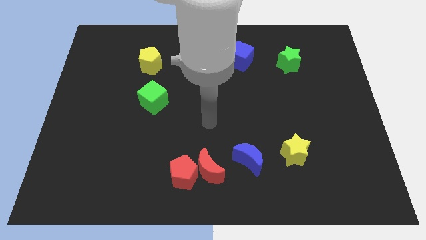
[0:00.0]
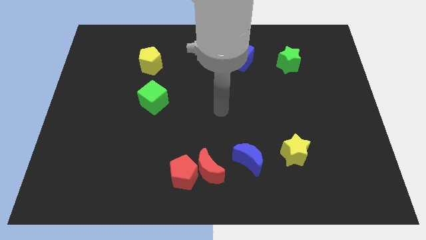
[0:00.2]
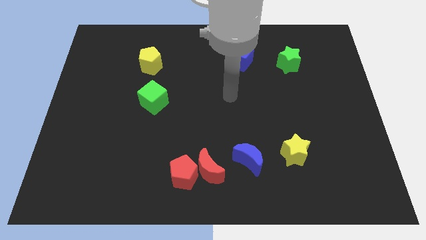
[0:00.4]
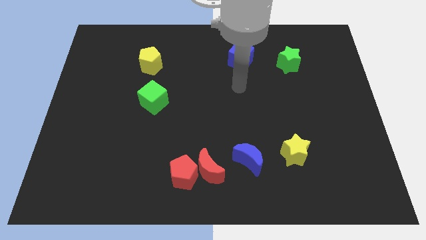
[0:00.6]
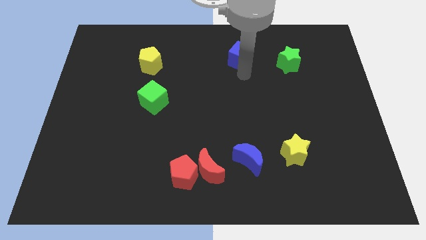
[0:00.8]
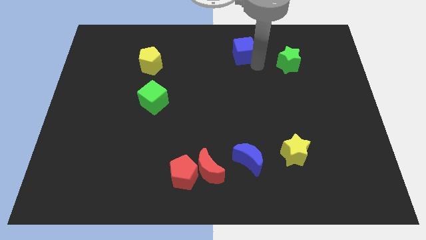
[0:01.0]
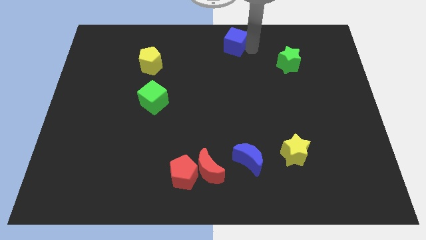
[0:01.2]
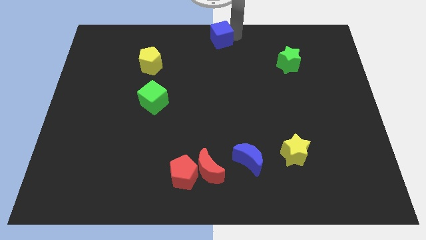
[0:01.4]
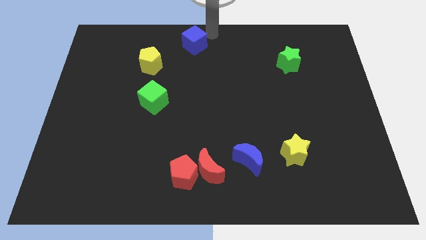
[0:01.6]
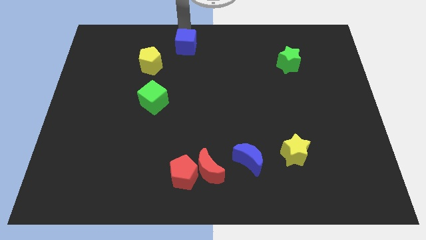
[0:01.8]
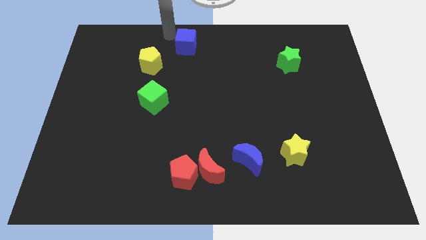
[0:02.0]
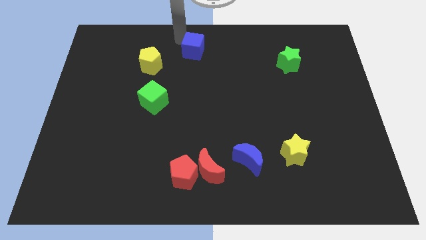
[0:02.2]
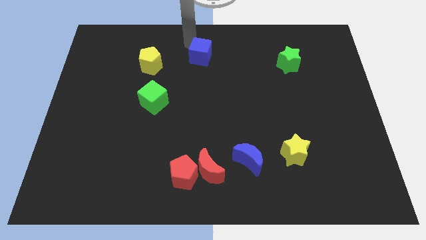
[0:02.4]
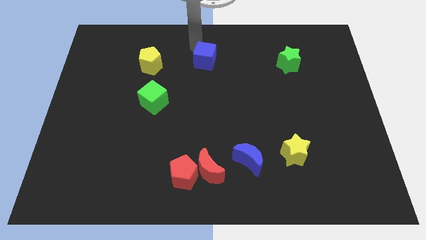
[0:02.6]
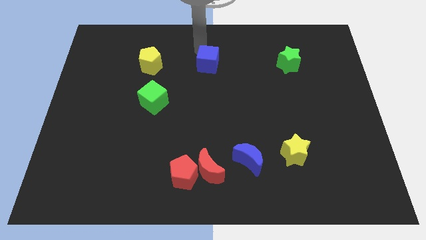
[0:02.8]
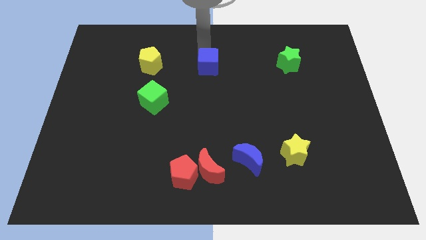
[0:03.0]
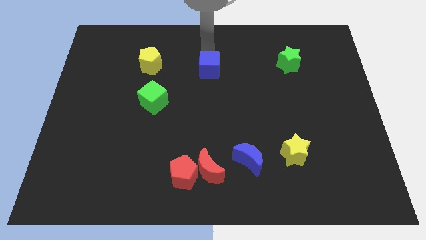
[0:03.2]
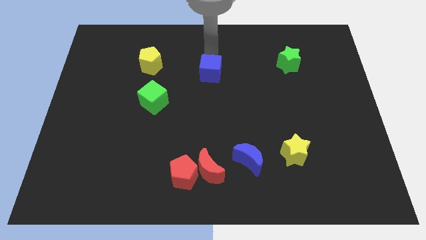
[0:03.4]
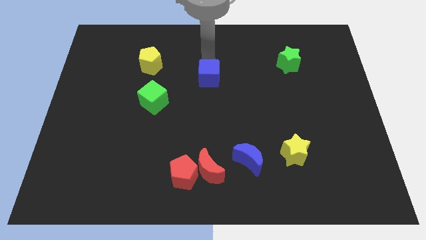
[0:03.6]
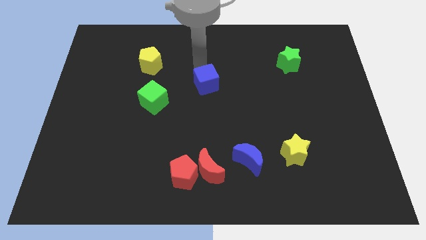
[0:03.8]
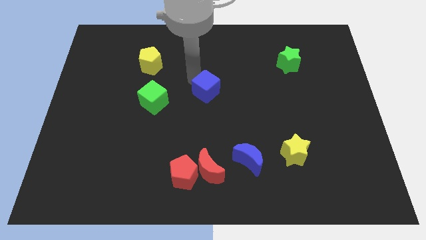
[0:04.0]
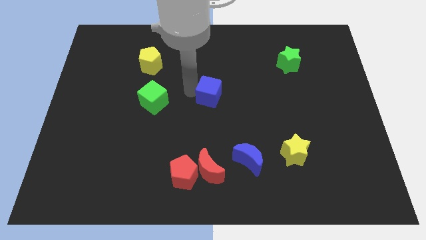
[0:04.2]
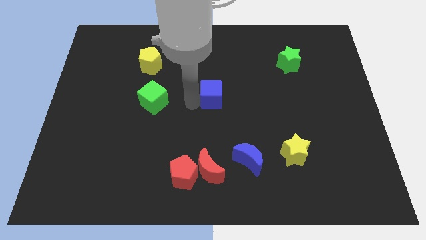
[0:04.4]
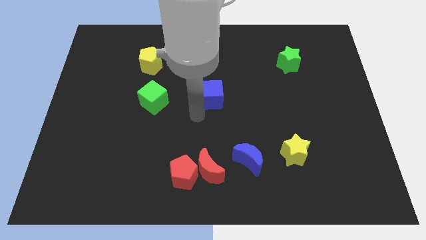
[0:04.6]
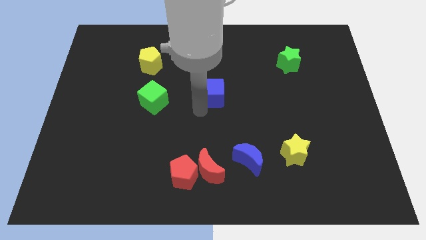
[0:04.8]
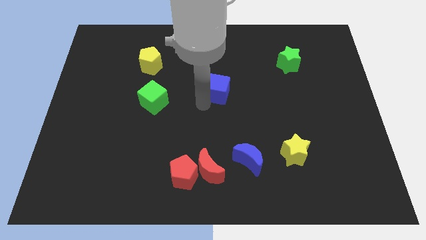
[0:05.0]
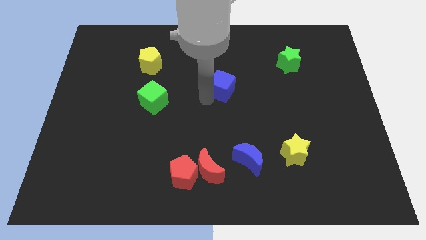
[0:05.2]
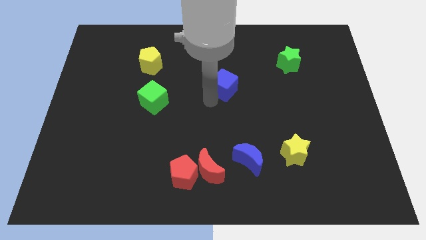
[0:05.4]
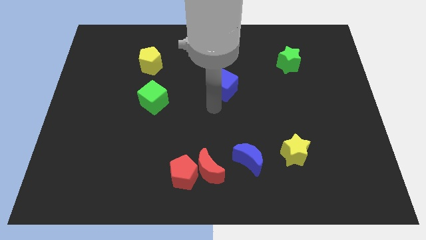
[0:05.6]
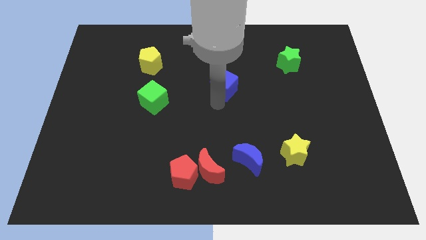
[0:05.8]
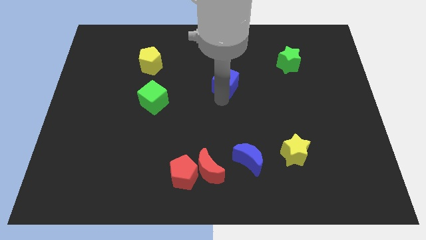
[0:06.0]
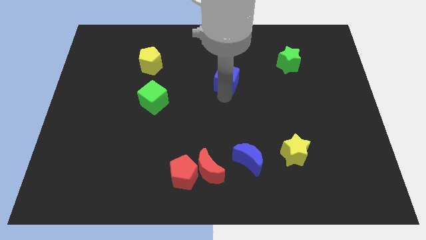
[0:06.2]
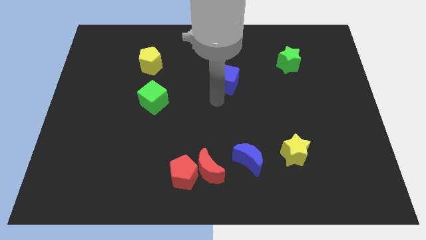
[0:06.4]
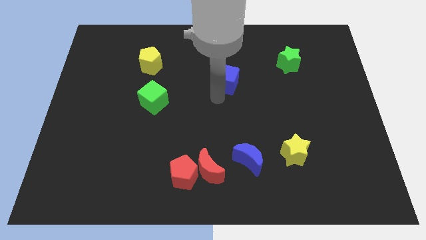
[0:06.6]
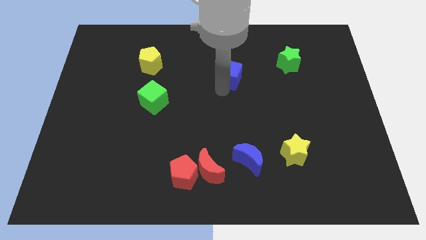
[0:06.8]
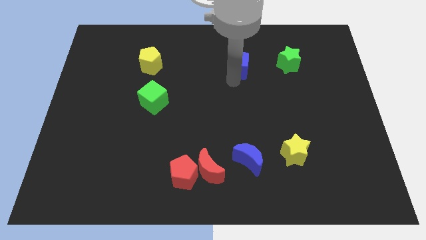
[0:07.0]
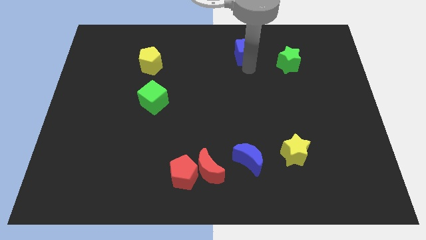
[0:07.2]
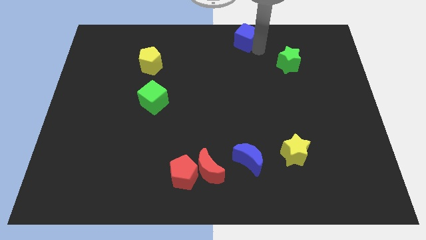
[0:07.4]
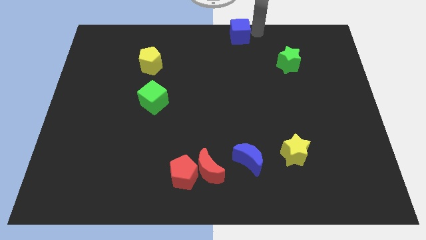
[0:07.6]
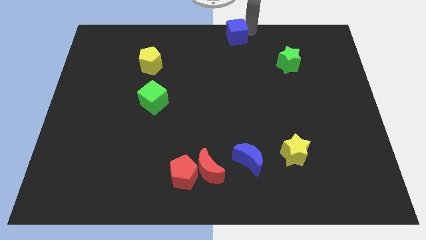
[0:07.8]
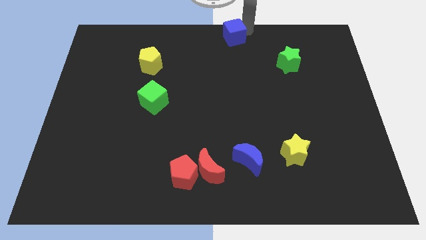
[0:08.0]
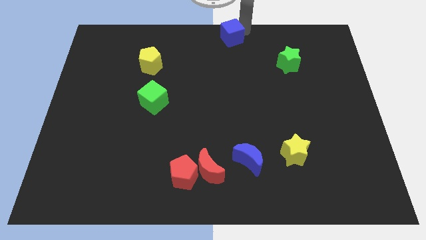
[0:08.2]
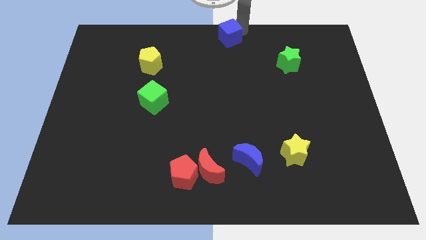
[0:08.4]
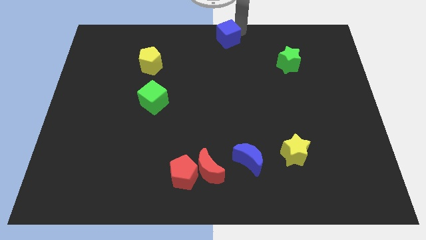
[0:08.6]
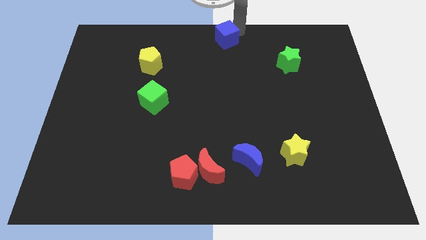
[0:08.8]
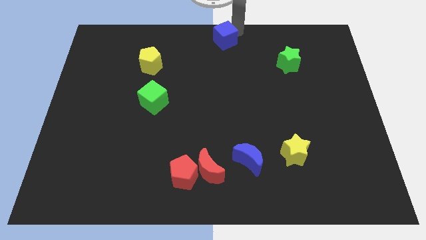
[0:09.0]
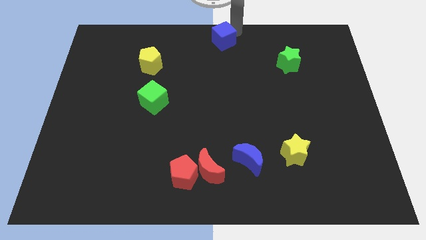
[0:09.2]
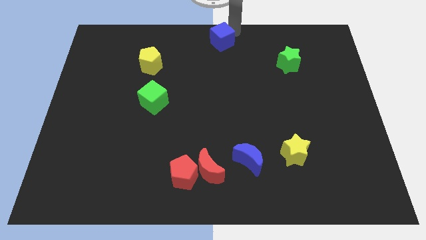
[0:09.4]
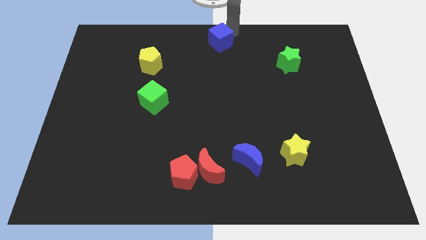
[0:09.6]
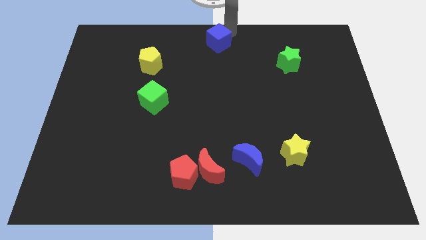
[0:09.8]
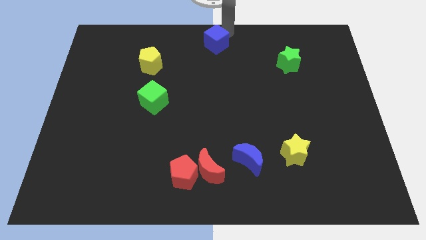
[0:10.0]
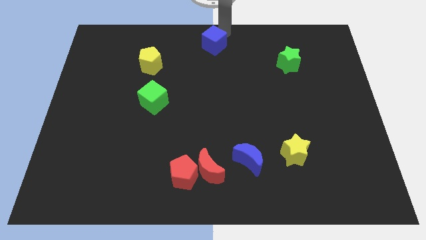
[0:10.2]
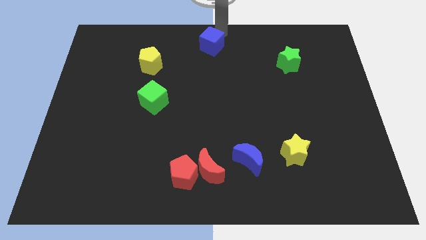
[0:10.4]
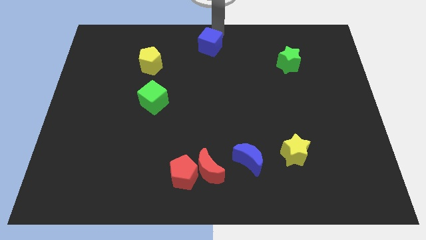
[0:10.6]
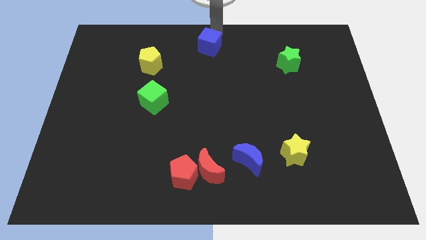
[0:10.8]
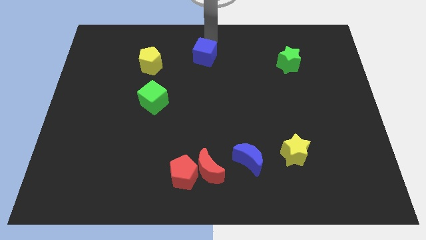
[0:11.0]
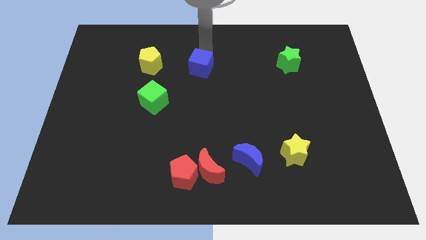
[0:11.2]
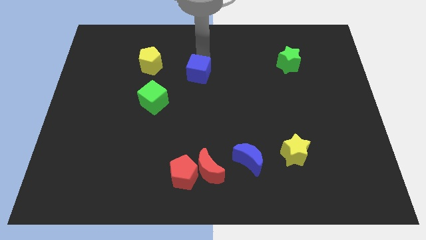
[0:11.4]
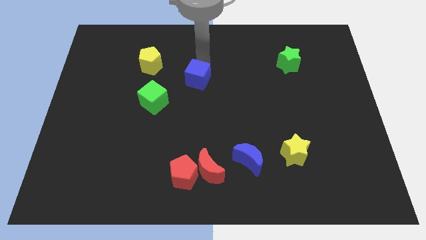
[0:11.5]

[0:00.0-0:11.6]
move the blue cube diagonally up and to the right of the green cube
